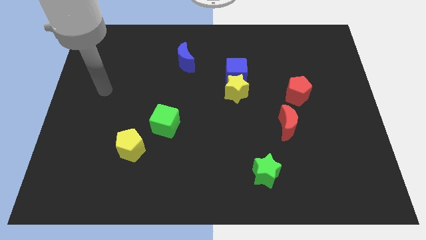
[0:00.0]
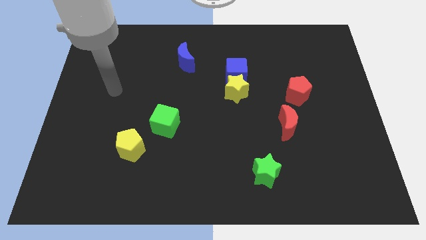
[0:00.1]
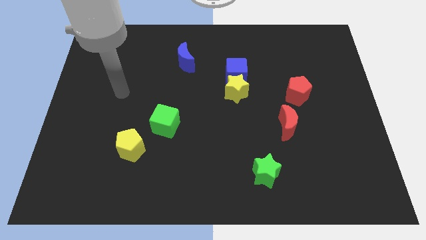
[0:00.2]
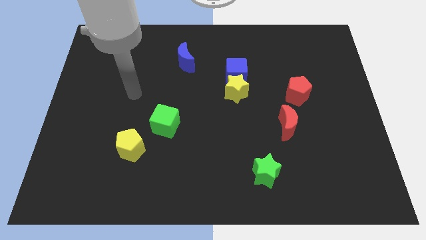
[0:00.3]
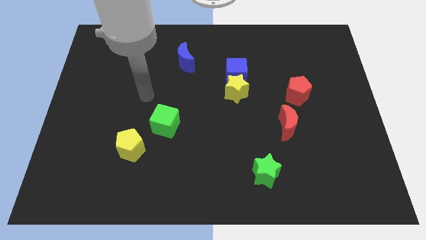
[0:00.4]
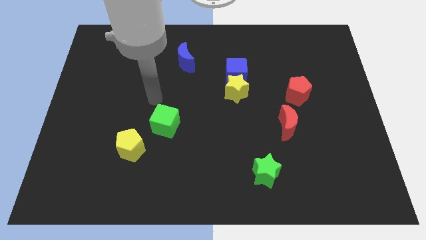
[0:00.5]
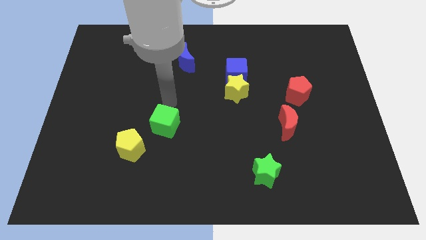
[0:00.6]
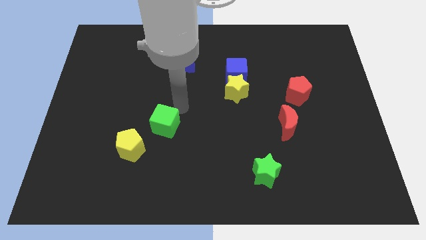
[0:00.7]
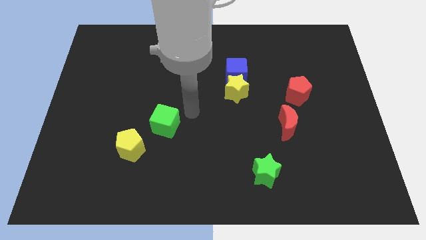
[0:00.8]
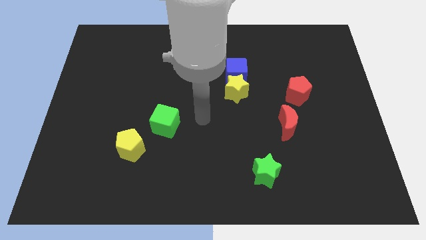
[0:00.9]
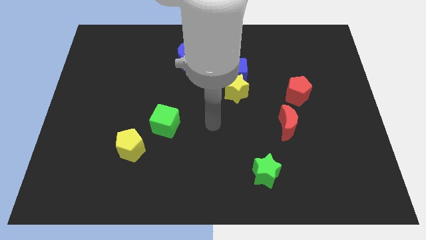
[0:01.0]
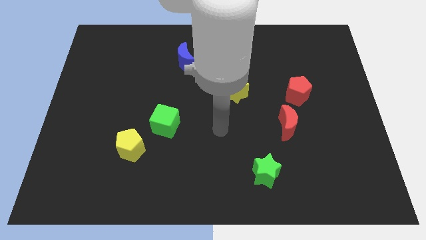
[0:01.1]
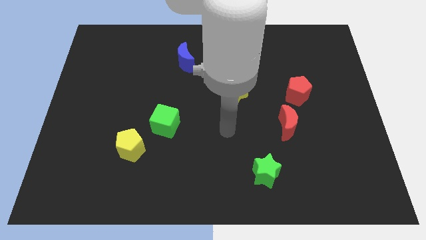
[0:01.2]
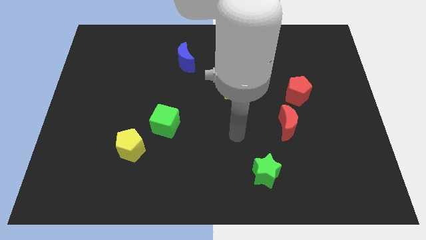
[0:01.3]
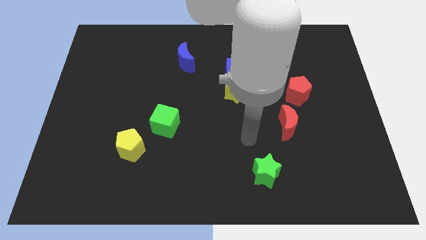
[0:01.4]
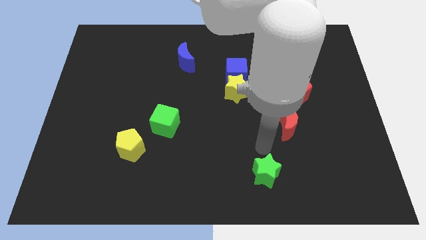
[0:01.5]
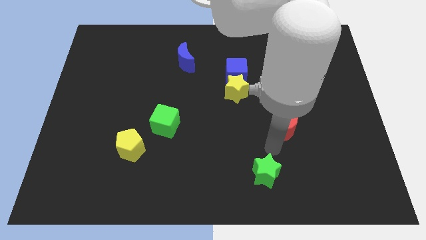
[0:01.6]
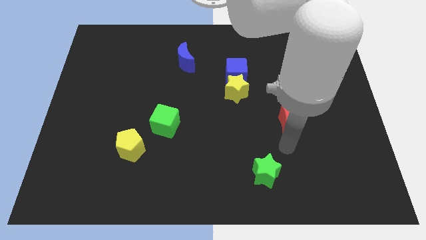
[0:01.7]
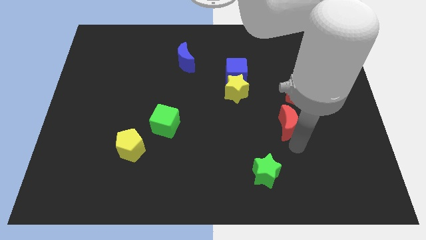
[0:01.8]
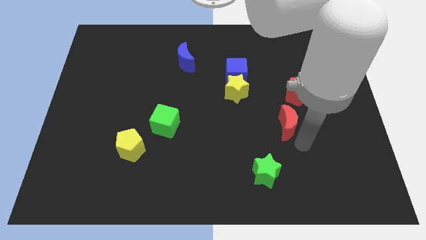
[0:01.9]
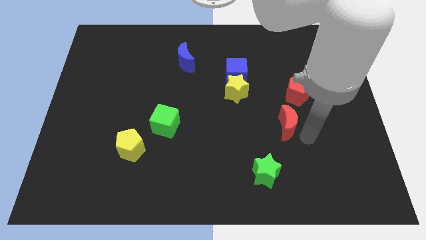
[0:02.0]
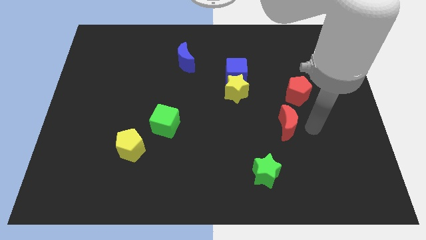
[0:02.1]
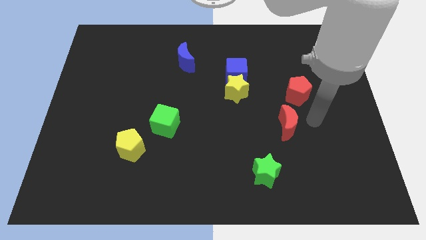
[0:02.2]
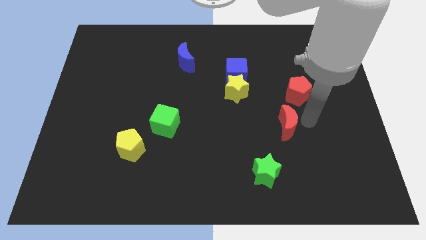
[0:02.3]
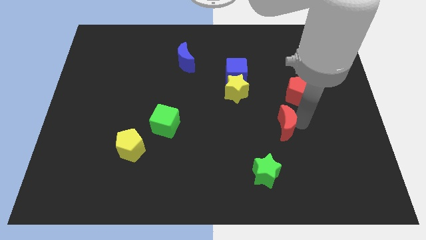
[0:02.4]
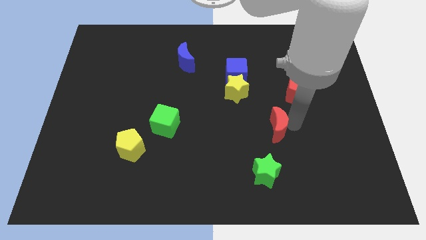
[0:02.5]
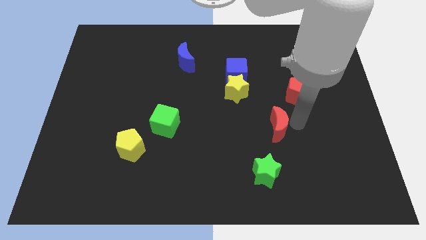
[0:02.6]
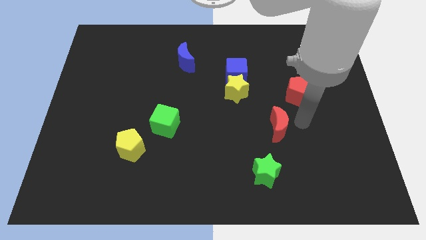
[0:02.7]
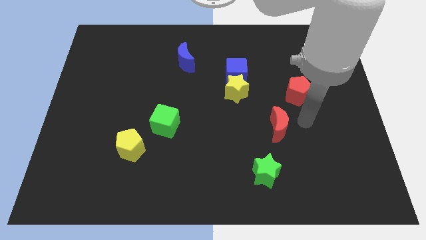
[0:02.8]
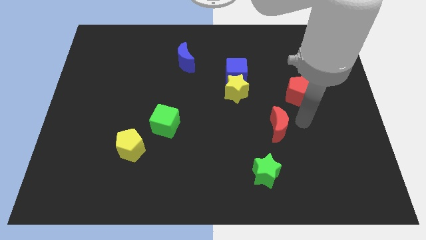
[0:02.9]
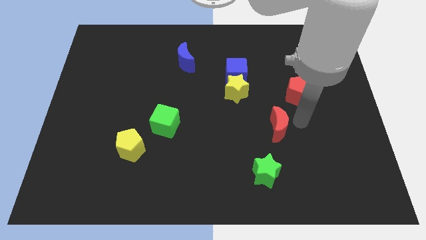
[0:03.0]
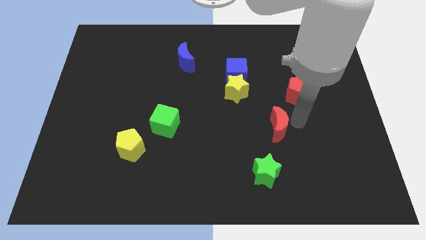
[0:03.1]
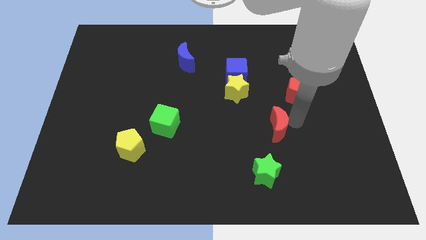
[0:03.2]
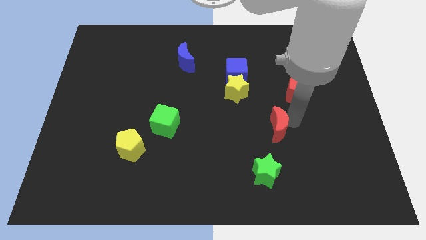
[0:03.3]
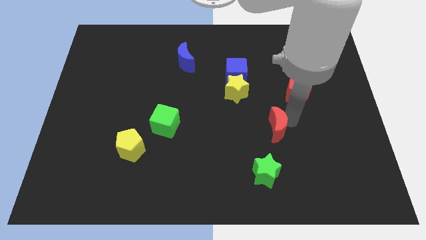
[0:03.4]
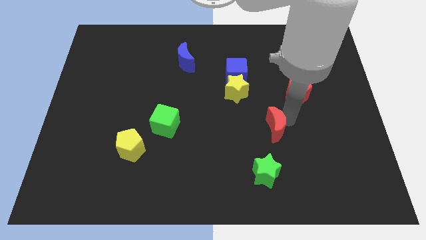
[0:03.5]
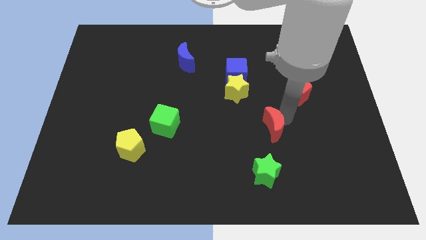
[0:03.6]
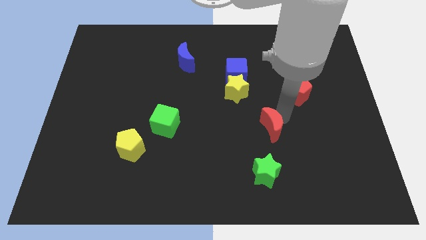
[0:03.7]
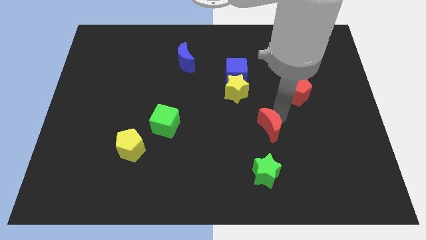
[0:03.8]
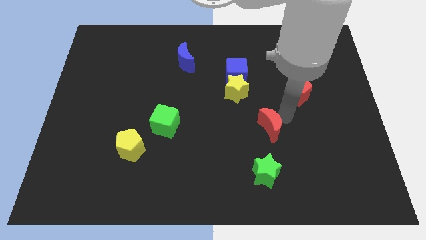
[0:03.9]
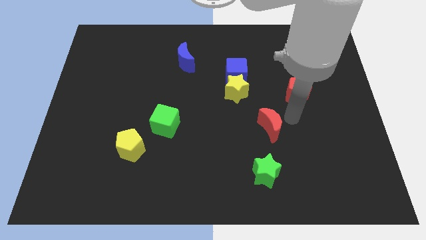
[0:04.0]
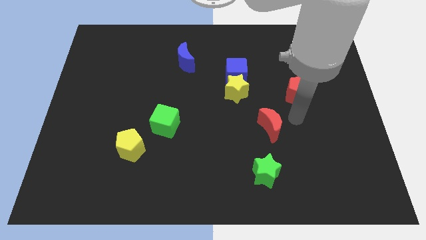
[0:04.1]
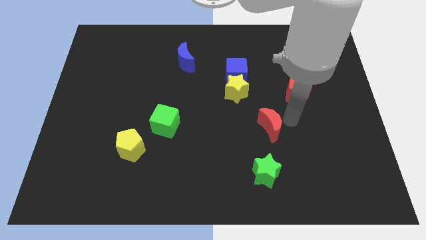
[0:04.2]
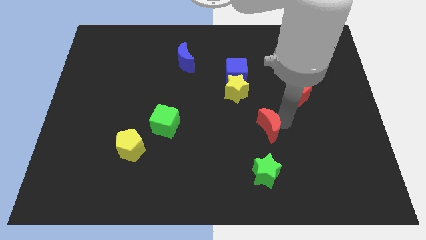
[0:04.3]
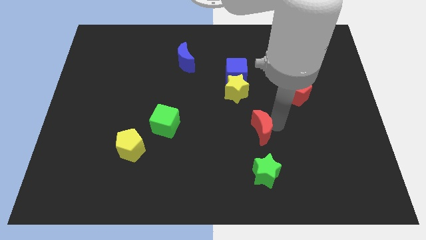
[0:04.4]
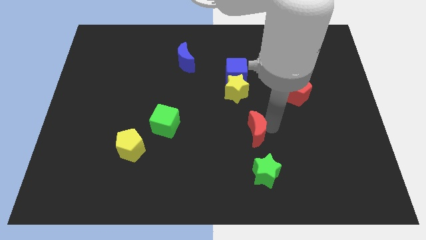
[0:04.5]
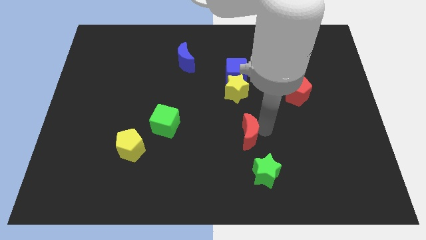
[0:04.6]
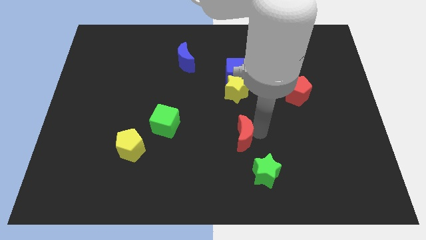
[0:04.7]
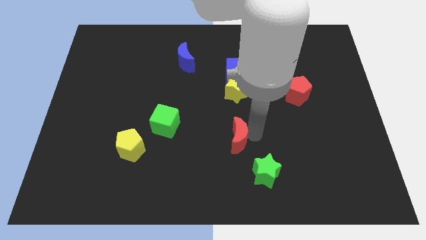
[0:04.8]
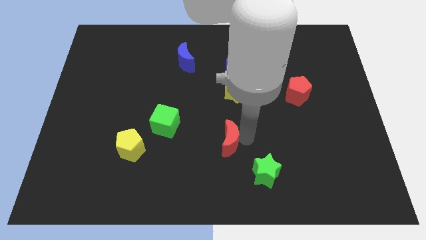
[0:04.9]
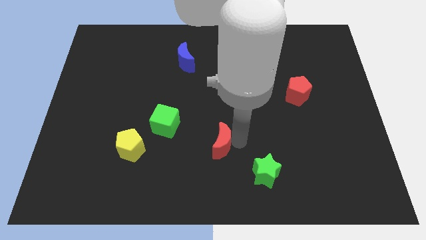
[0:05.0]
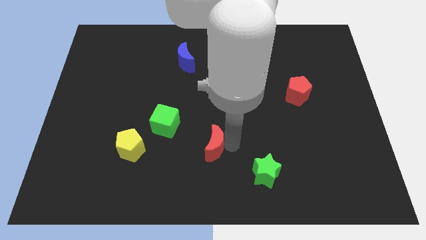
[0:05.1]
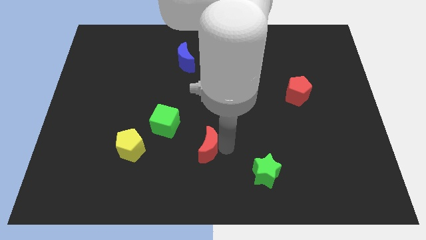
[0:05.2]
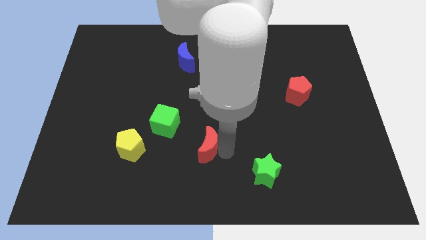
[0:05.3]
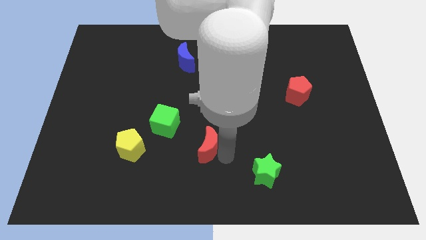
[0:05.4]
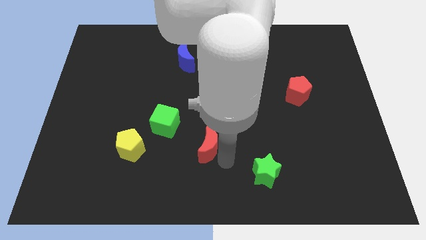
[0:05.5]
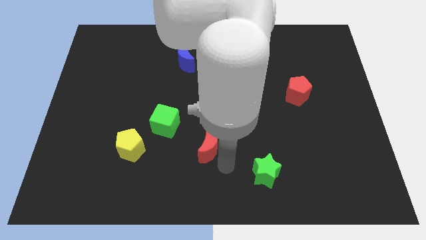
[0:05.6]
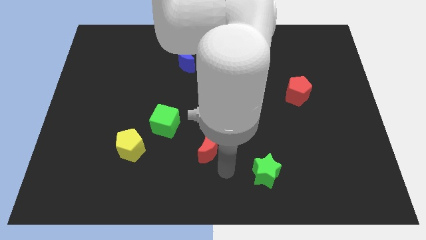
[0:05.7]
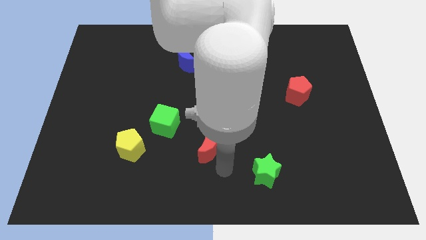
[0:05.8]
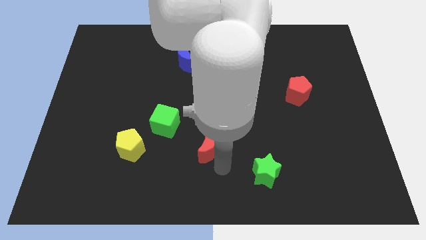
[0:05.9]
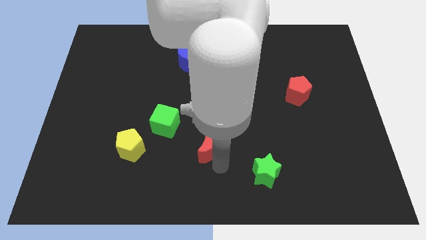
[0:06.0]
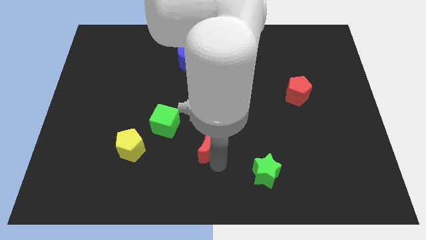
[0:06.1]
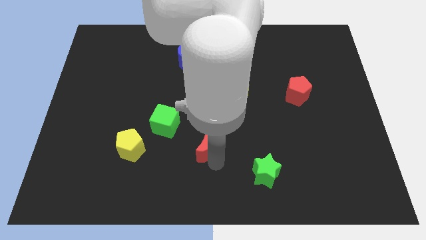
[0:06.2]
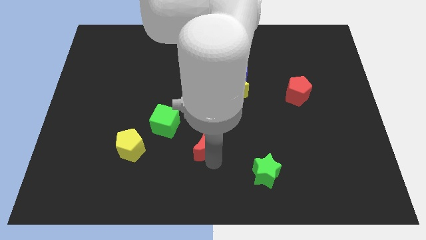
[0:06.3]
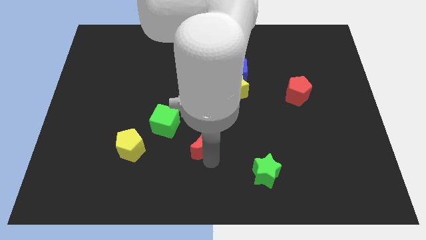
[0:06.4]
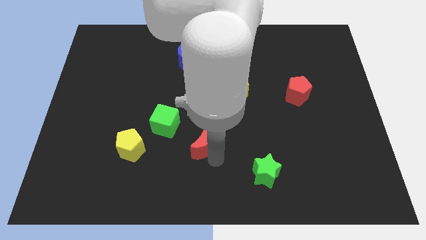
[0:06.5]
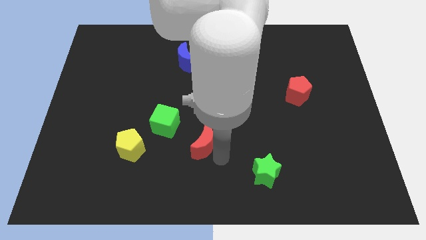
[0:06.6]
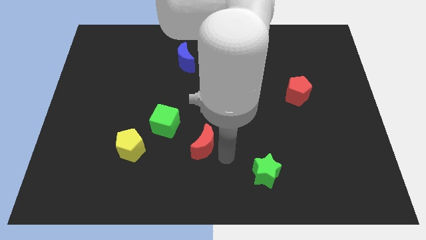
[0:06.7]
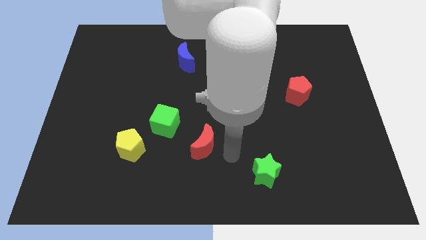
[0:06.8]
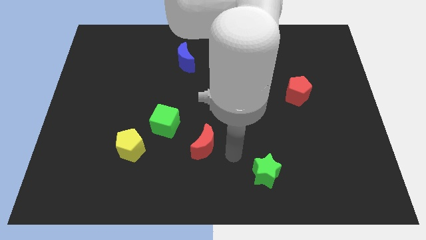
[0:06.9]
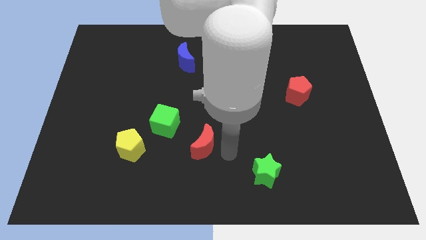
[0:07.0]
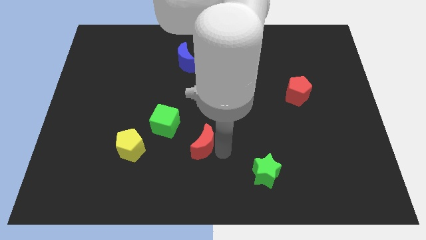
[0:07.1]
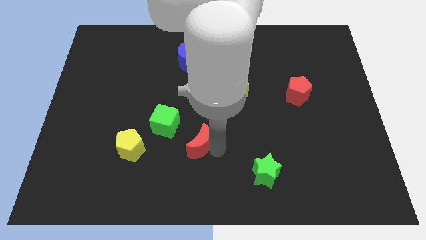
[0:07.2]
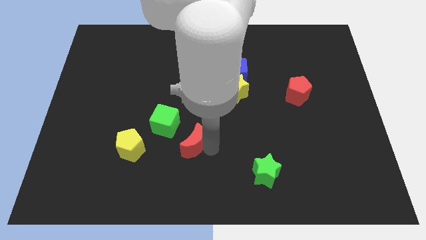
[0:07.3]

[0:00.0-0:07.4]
slide the red moon left

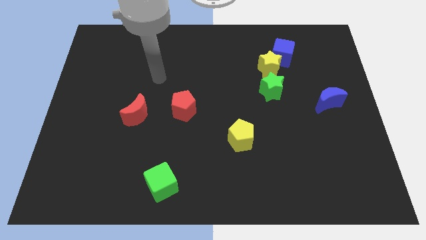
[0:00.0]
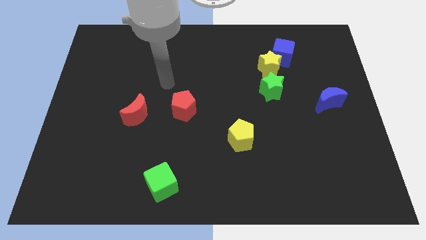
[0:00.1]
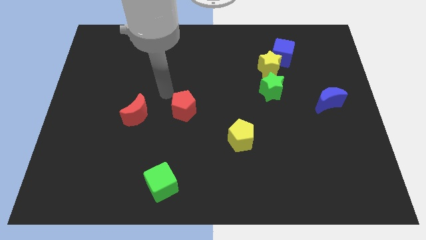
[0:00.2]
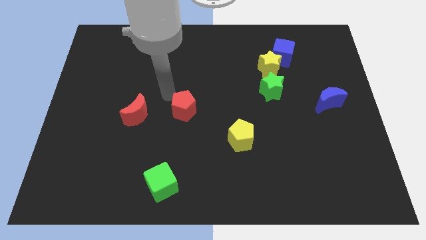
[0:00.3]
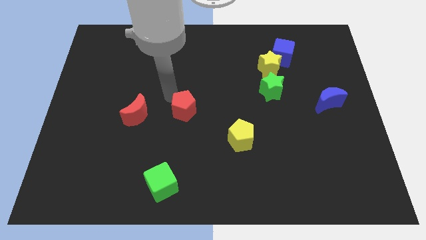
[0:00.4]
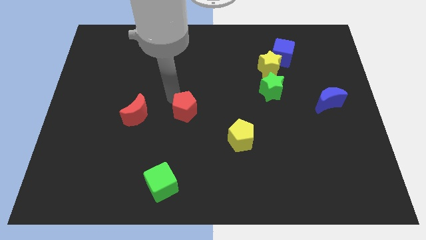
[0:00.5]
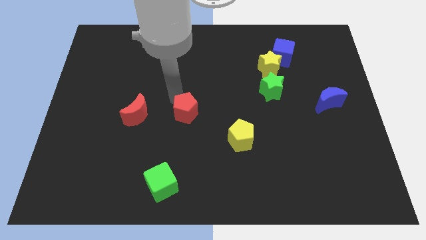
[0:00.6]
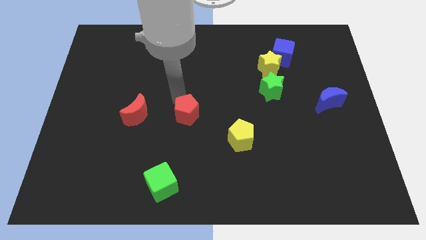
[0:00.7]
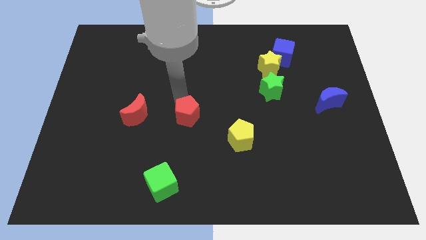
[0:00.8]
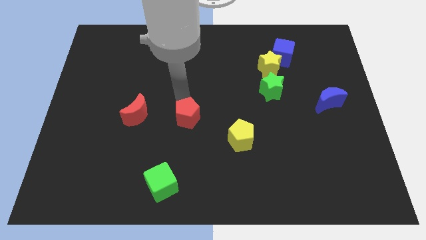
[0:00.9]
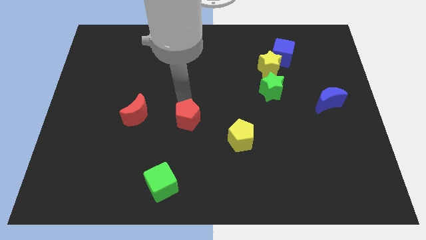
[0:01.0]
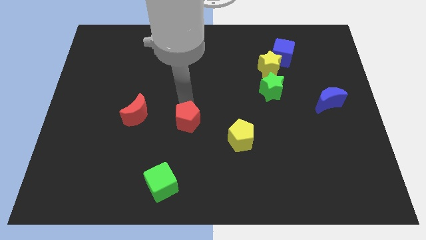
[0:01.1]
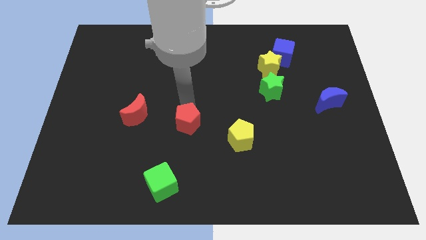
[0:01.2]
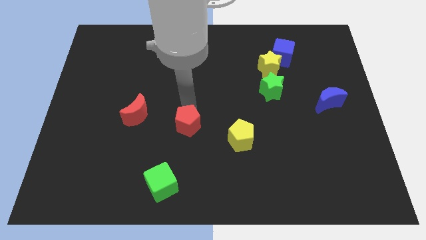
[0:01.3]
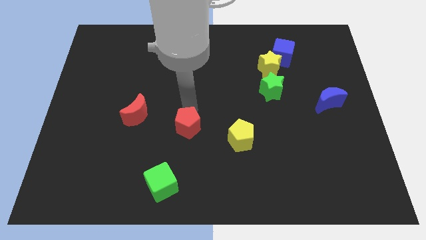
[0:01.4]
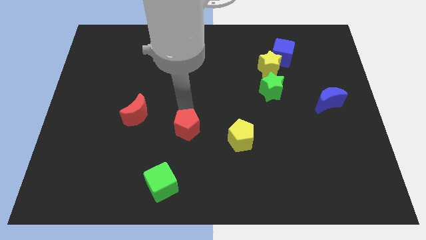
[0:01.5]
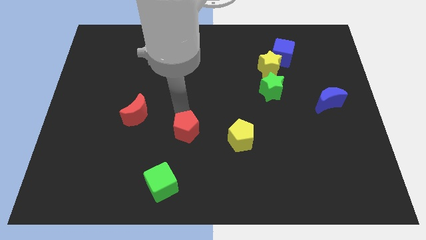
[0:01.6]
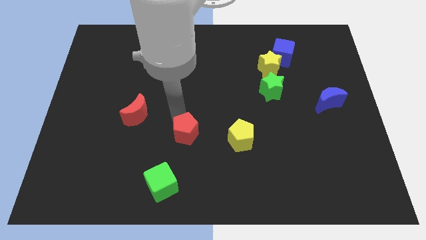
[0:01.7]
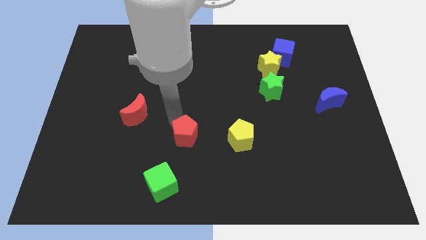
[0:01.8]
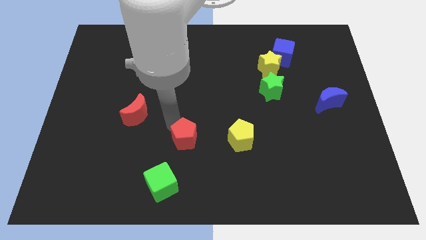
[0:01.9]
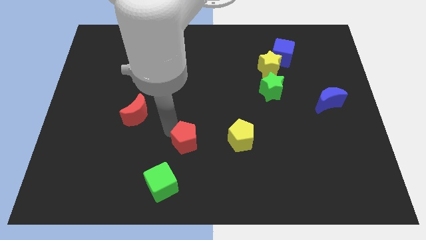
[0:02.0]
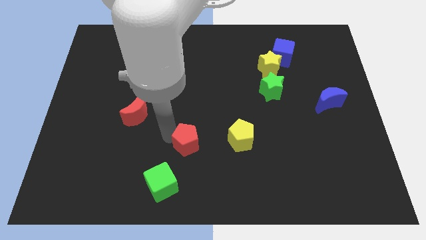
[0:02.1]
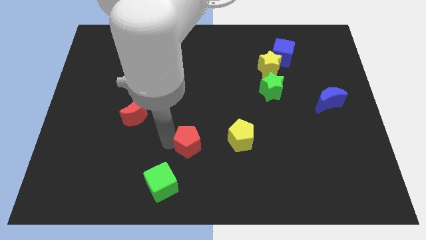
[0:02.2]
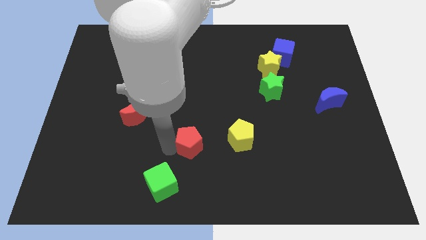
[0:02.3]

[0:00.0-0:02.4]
slide the red pentagon downwards and right diagonally a bit
